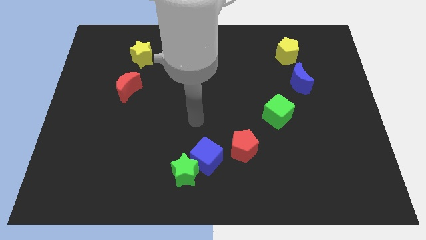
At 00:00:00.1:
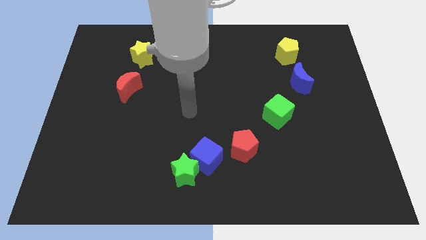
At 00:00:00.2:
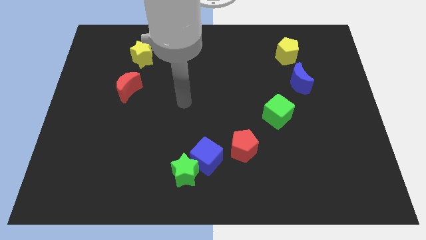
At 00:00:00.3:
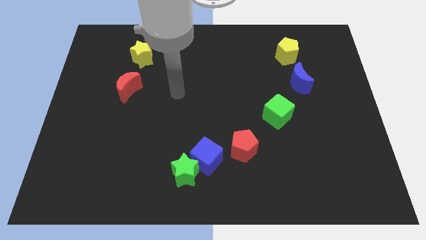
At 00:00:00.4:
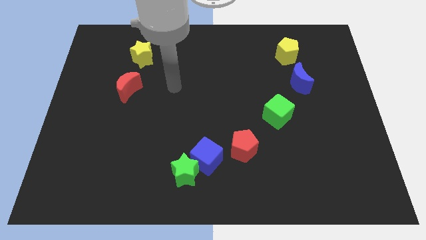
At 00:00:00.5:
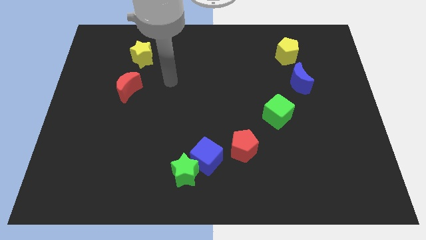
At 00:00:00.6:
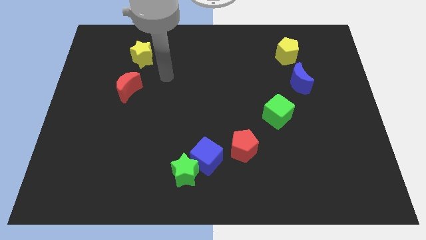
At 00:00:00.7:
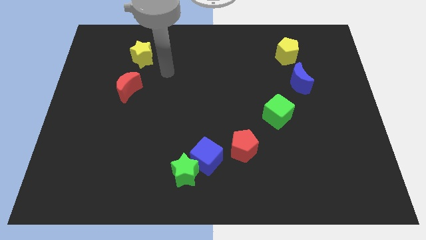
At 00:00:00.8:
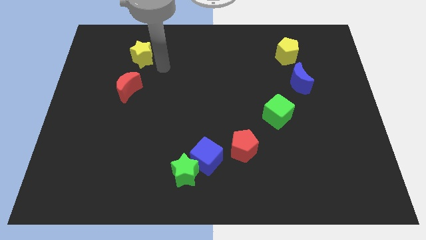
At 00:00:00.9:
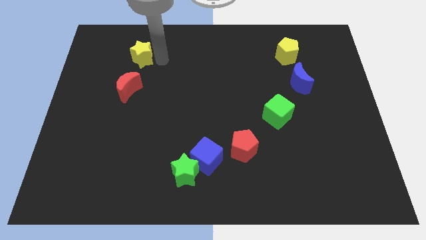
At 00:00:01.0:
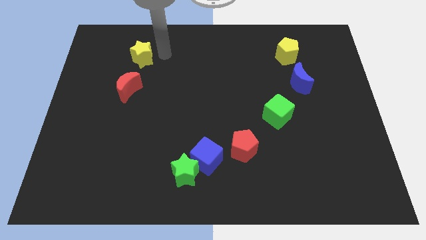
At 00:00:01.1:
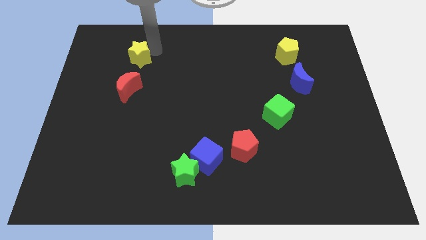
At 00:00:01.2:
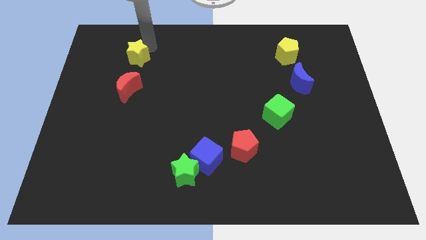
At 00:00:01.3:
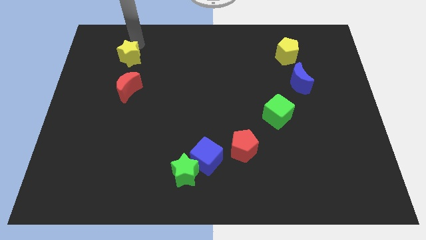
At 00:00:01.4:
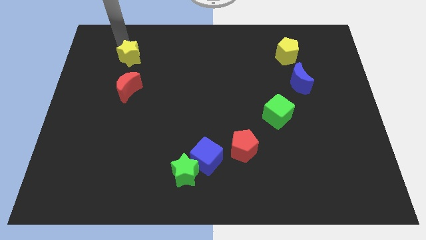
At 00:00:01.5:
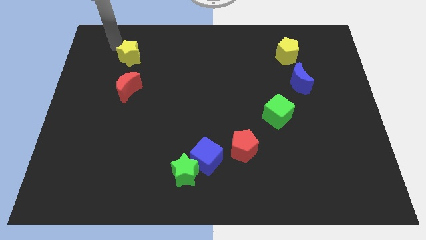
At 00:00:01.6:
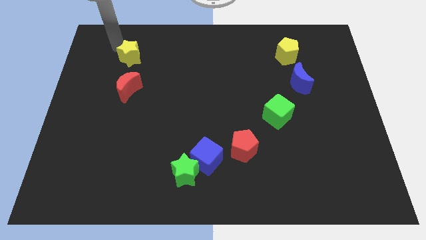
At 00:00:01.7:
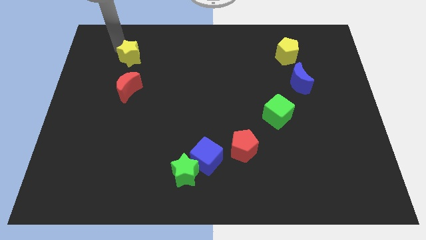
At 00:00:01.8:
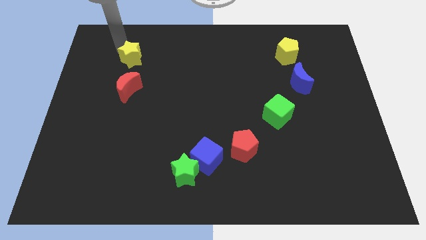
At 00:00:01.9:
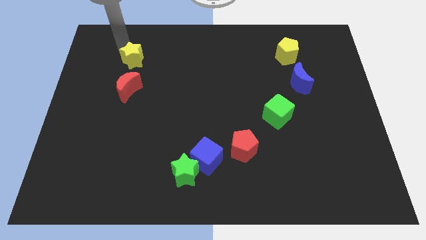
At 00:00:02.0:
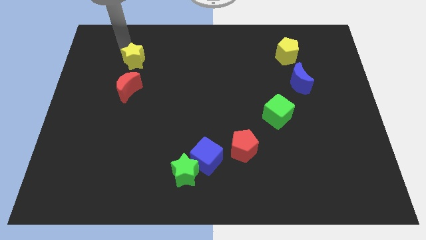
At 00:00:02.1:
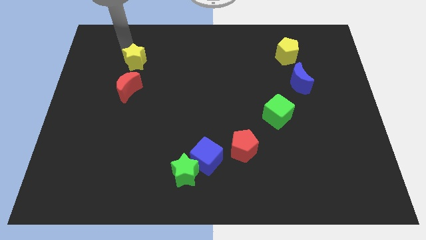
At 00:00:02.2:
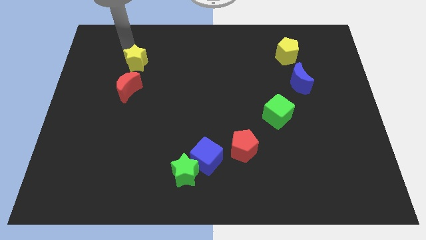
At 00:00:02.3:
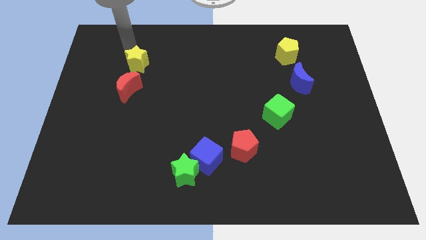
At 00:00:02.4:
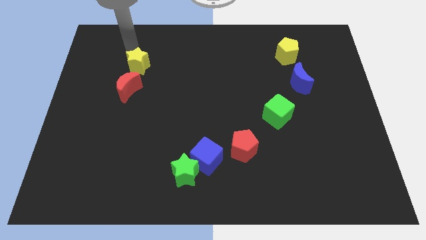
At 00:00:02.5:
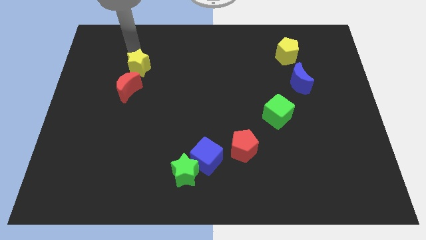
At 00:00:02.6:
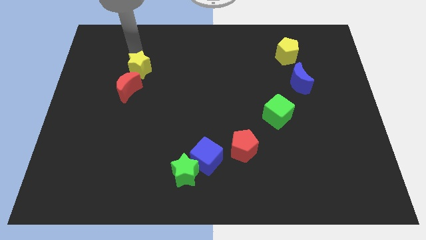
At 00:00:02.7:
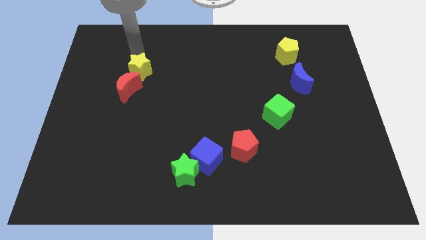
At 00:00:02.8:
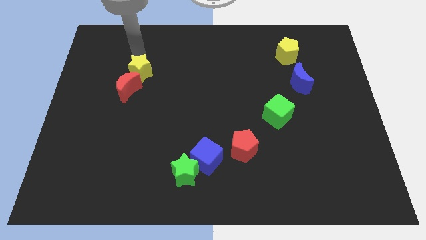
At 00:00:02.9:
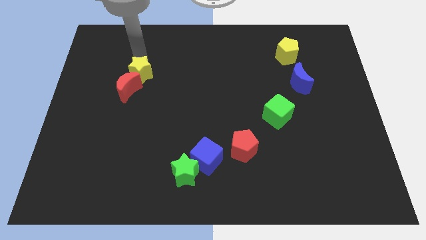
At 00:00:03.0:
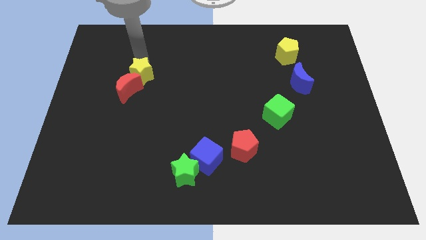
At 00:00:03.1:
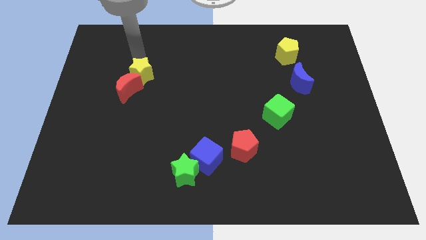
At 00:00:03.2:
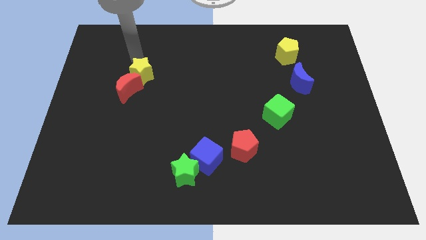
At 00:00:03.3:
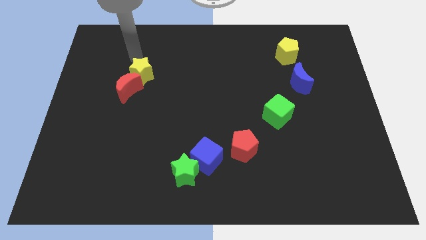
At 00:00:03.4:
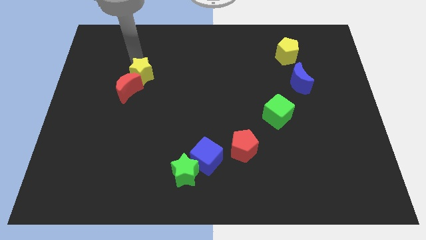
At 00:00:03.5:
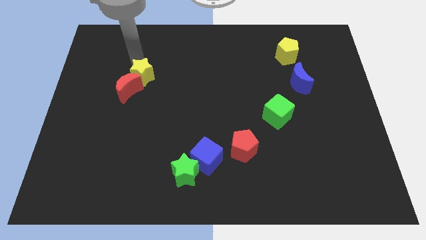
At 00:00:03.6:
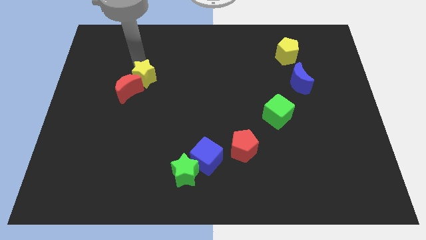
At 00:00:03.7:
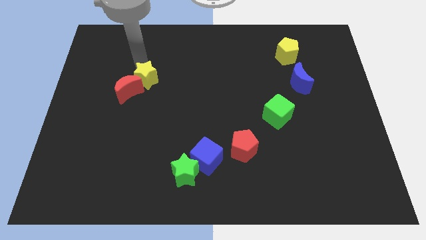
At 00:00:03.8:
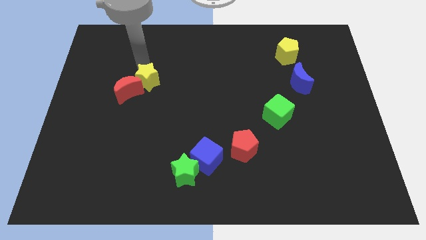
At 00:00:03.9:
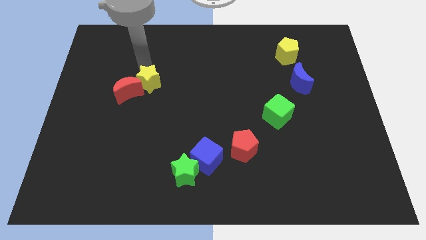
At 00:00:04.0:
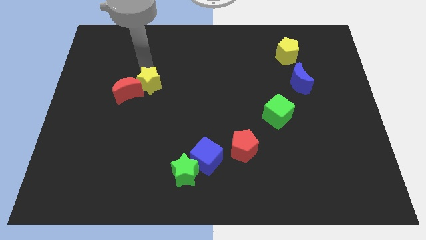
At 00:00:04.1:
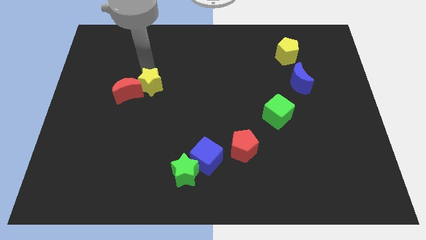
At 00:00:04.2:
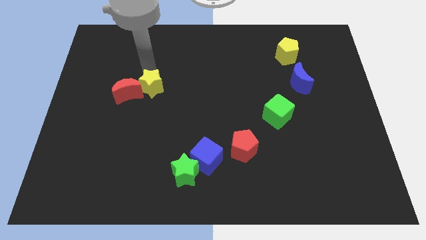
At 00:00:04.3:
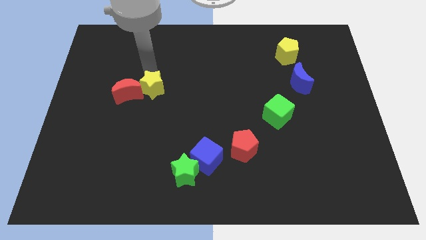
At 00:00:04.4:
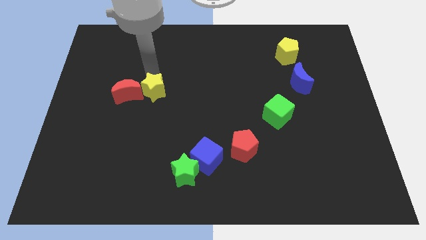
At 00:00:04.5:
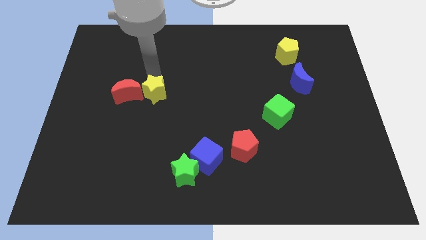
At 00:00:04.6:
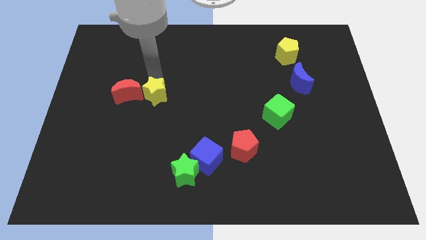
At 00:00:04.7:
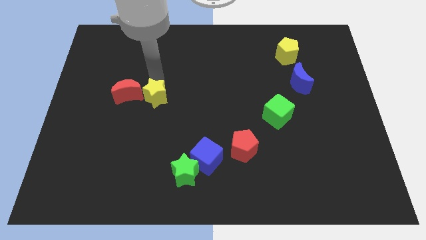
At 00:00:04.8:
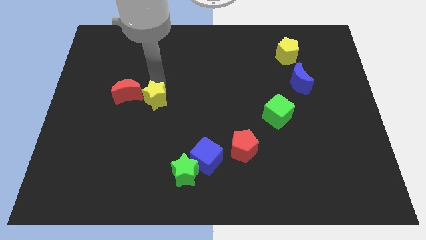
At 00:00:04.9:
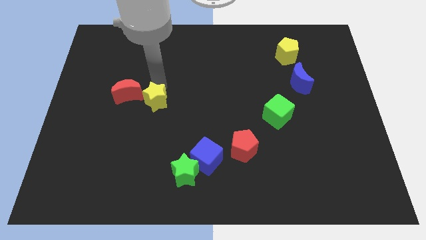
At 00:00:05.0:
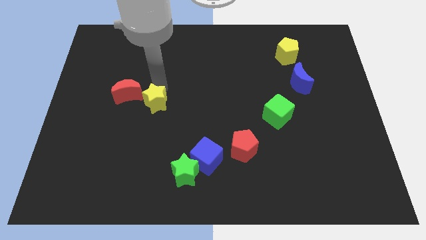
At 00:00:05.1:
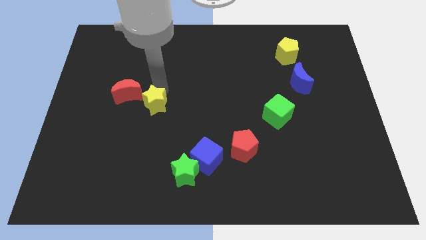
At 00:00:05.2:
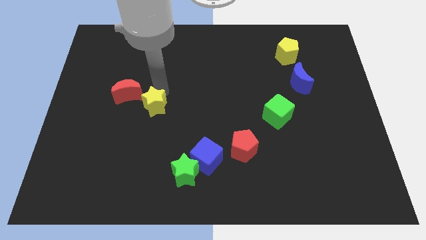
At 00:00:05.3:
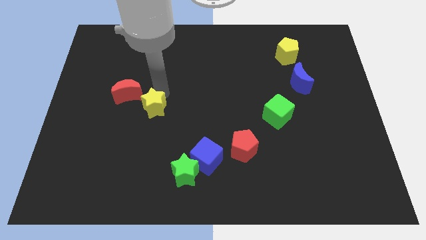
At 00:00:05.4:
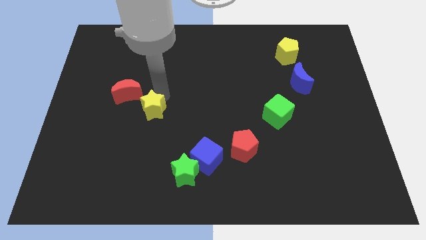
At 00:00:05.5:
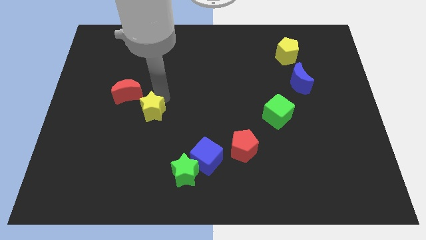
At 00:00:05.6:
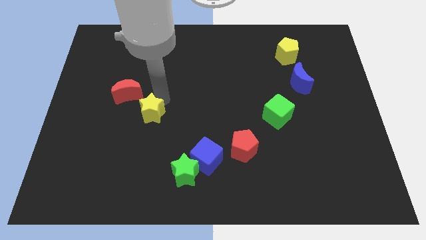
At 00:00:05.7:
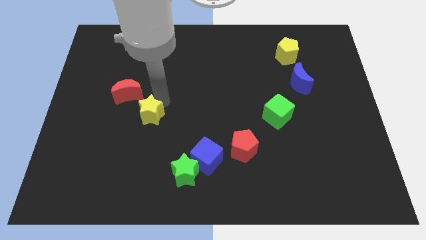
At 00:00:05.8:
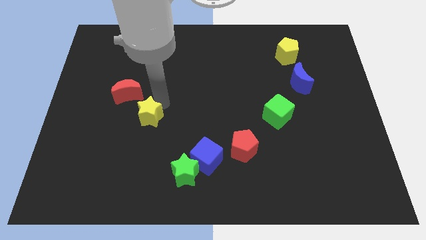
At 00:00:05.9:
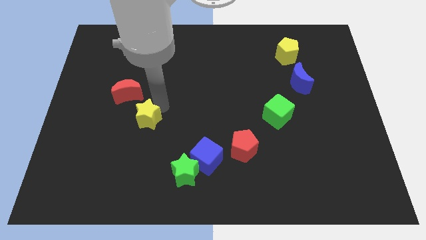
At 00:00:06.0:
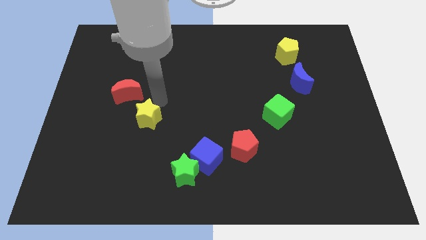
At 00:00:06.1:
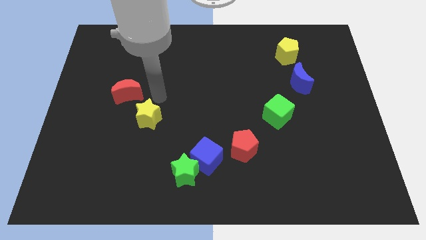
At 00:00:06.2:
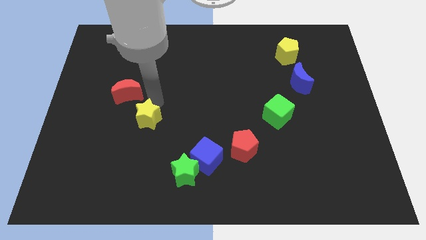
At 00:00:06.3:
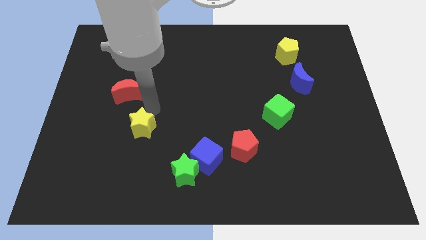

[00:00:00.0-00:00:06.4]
move the yellow star down

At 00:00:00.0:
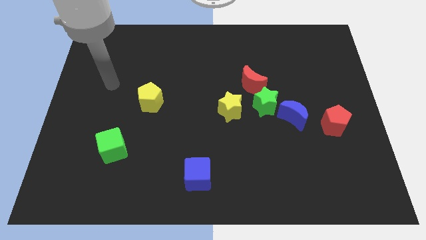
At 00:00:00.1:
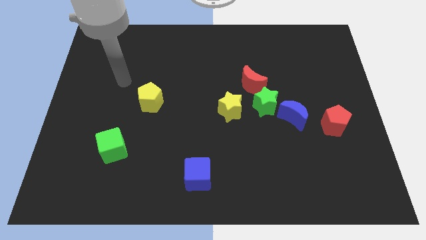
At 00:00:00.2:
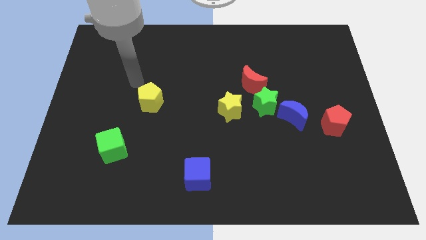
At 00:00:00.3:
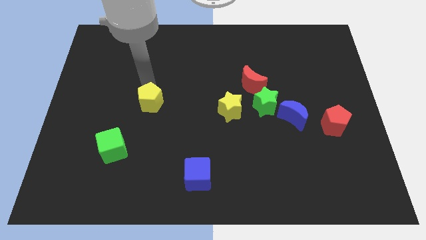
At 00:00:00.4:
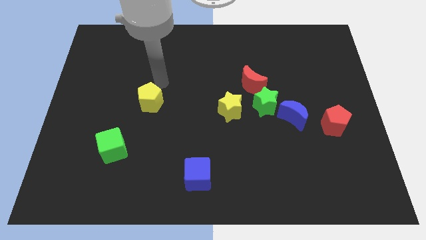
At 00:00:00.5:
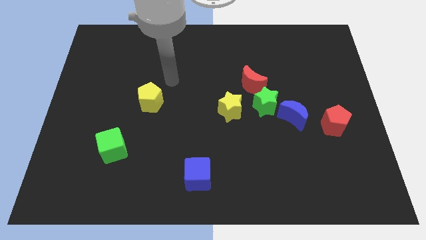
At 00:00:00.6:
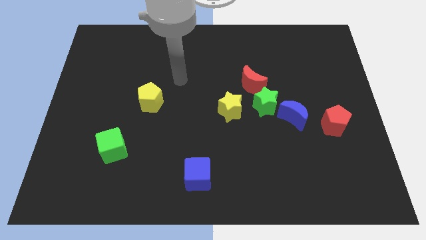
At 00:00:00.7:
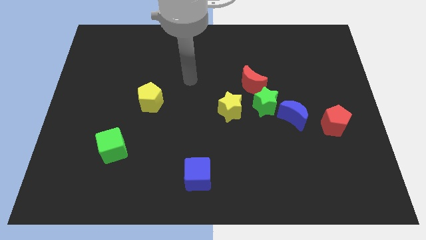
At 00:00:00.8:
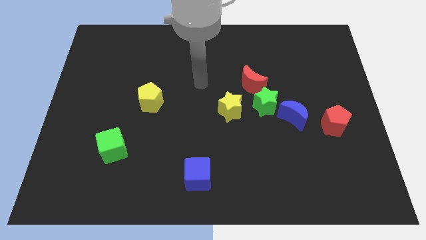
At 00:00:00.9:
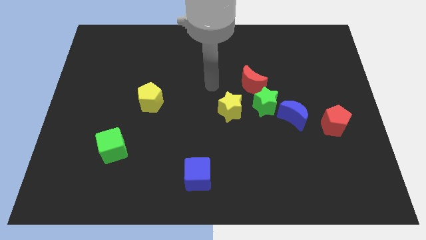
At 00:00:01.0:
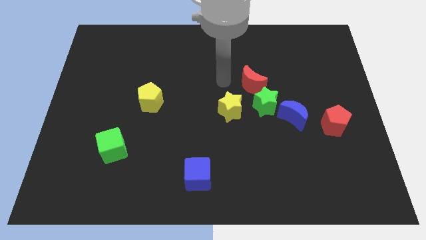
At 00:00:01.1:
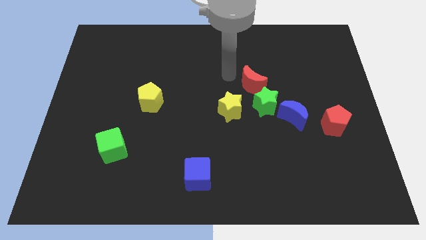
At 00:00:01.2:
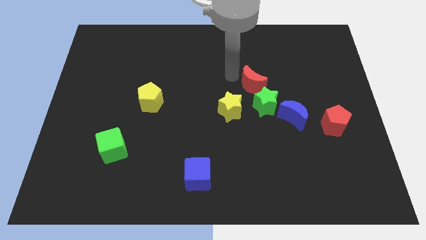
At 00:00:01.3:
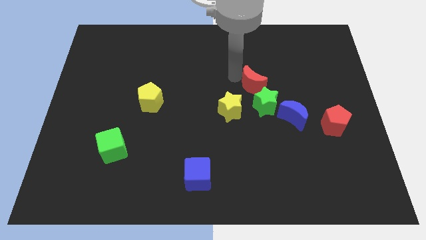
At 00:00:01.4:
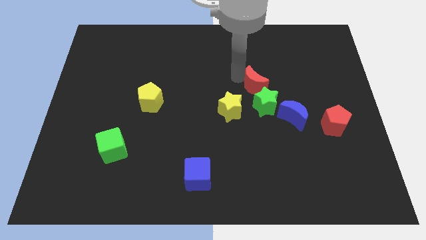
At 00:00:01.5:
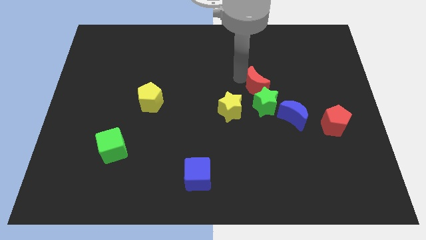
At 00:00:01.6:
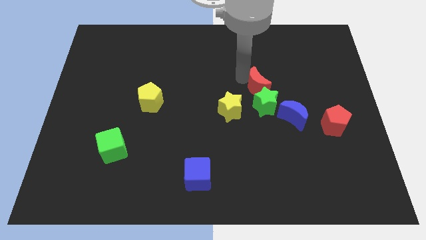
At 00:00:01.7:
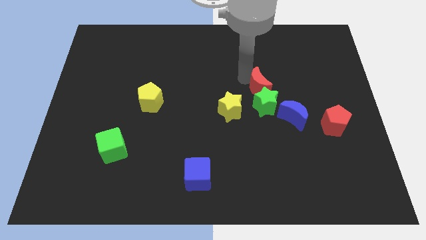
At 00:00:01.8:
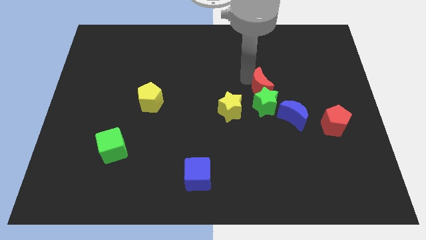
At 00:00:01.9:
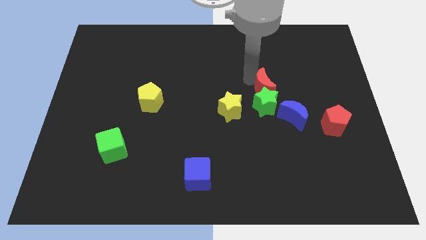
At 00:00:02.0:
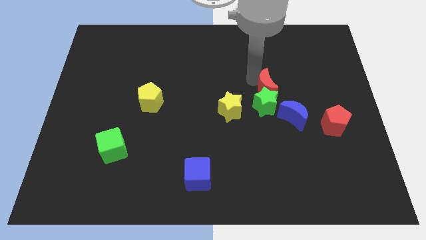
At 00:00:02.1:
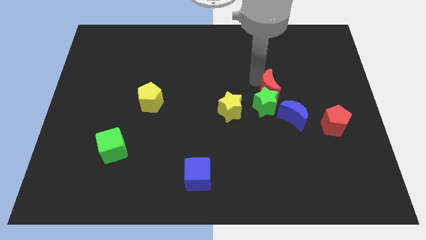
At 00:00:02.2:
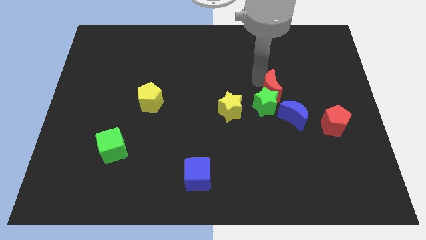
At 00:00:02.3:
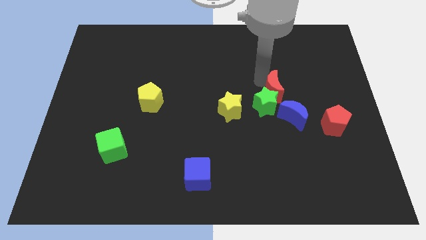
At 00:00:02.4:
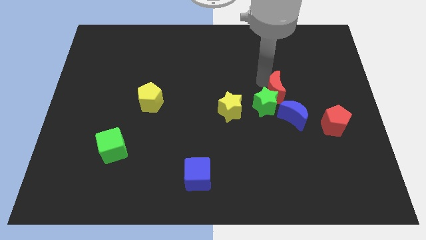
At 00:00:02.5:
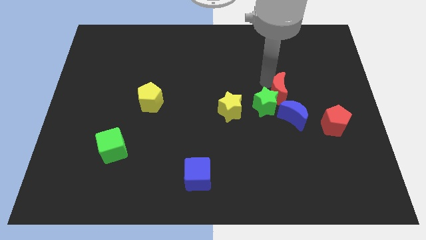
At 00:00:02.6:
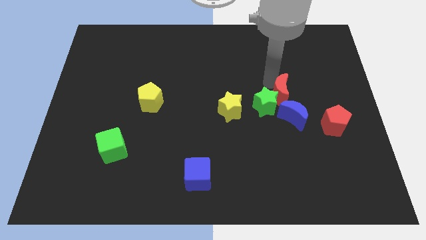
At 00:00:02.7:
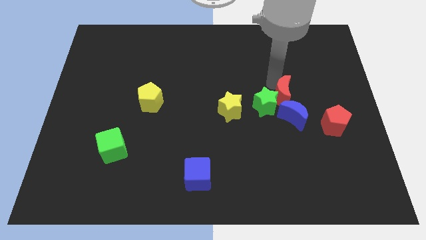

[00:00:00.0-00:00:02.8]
slightly slide the red moon down and to the right diagonally
